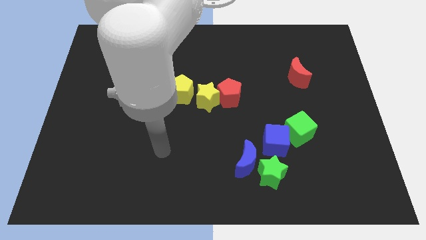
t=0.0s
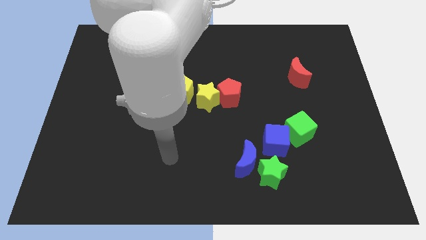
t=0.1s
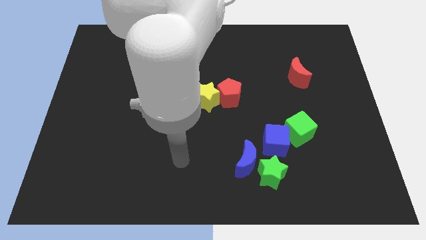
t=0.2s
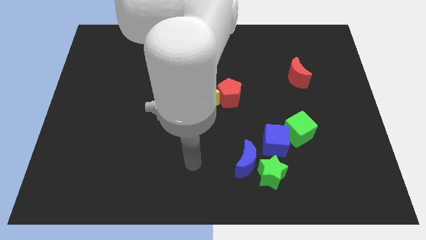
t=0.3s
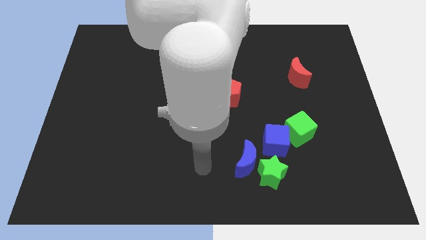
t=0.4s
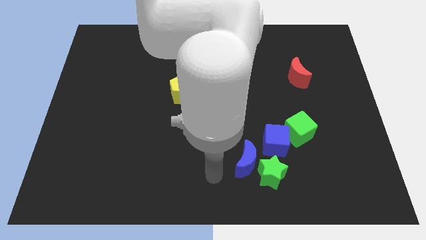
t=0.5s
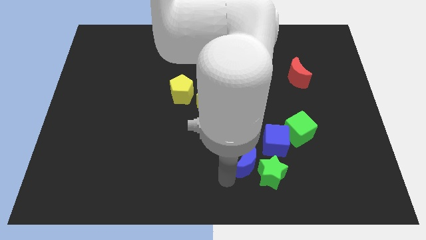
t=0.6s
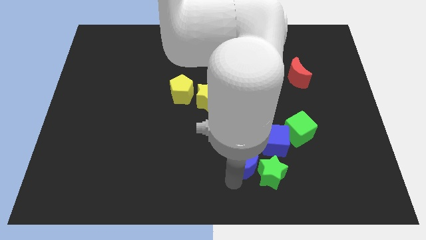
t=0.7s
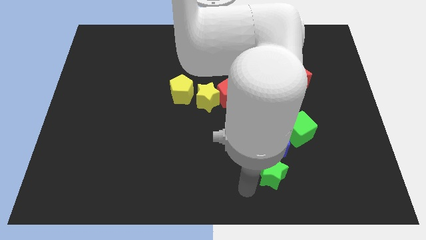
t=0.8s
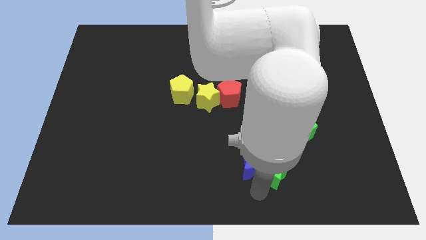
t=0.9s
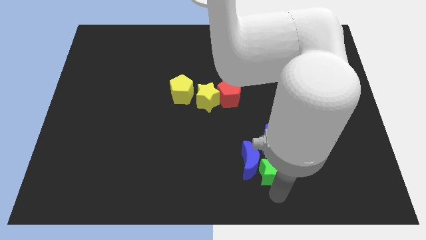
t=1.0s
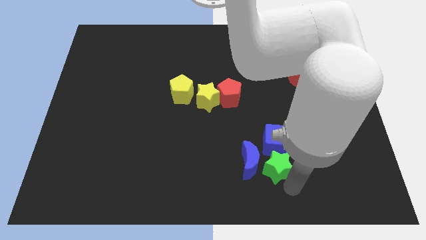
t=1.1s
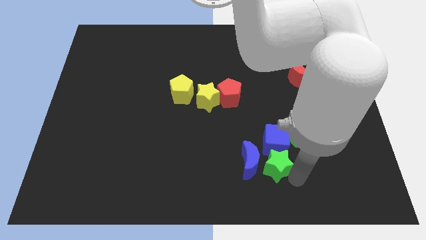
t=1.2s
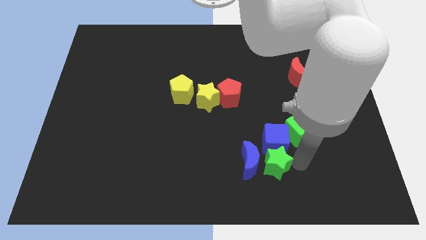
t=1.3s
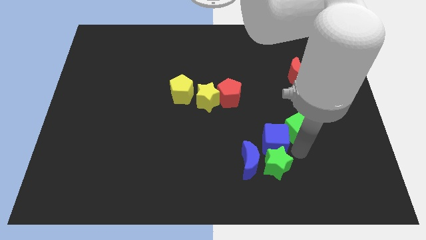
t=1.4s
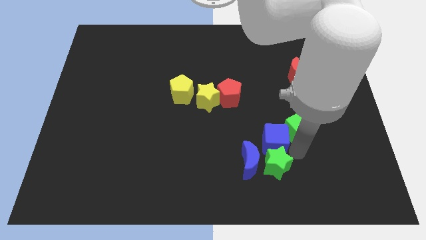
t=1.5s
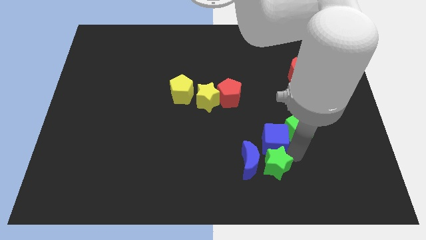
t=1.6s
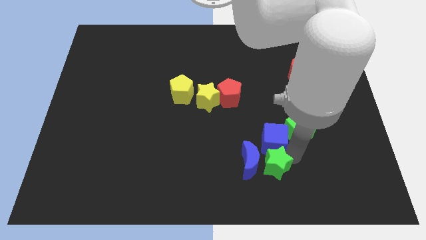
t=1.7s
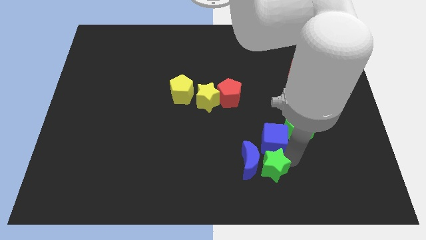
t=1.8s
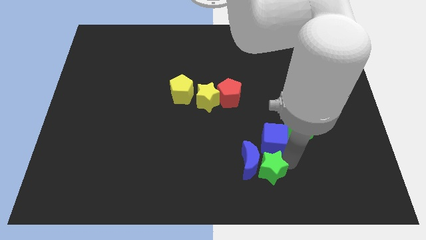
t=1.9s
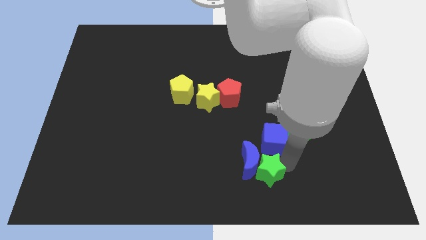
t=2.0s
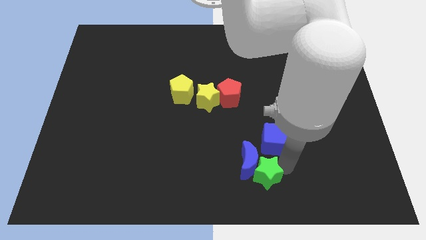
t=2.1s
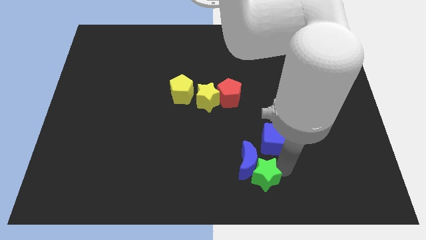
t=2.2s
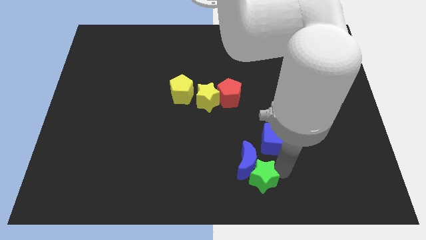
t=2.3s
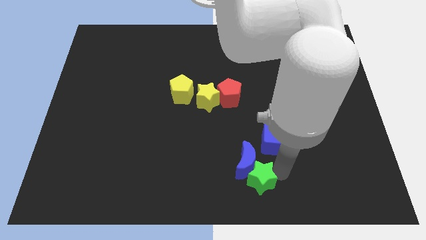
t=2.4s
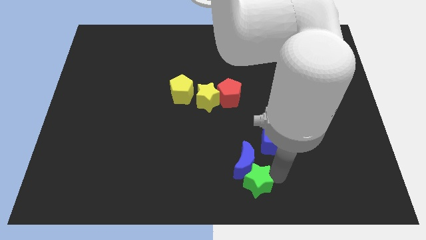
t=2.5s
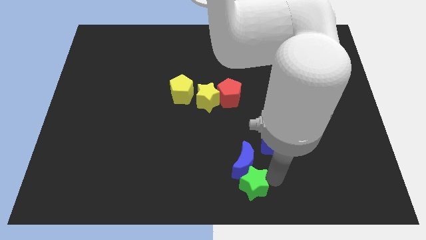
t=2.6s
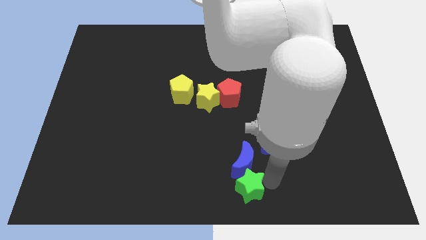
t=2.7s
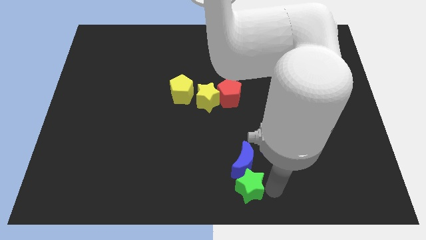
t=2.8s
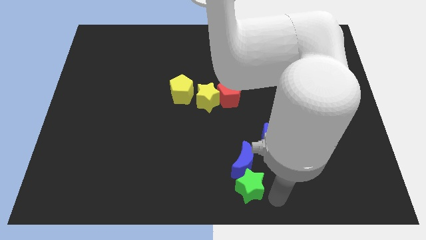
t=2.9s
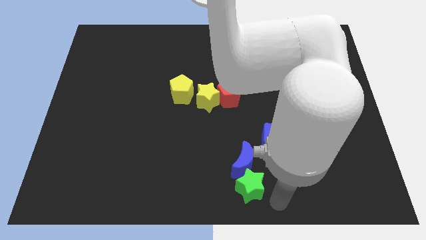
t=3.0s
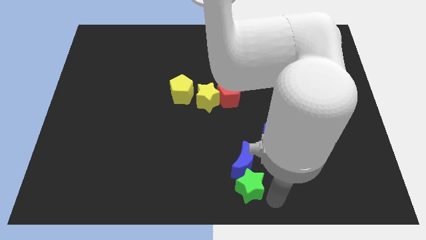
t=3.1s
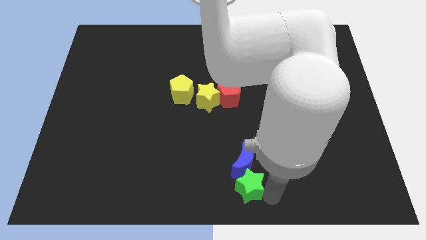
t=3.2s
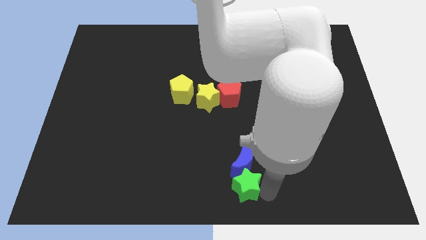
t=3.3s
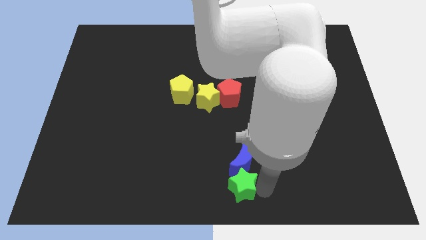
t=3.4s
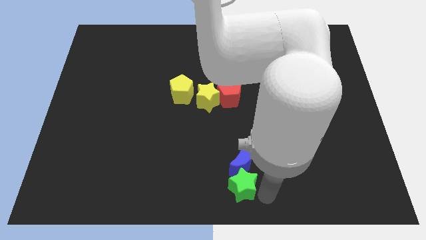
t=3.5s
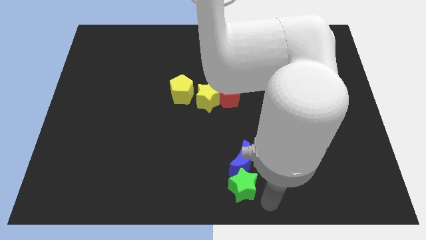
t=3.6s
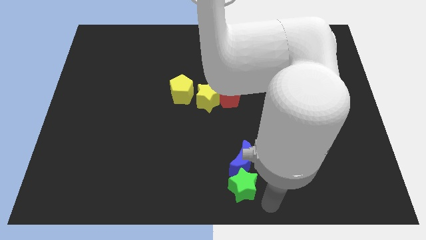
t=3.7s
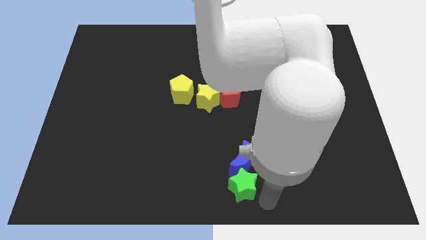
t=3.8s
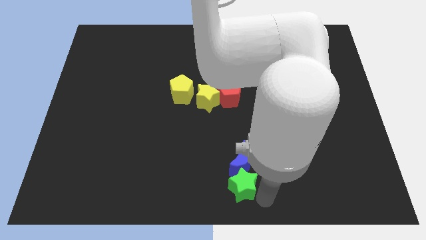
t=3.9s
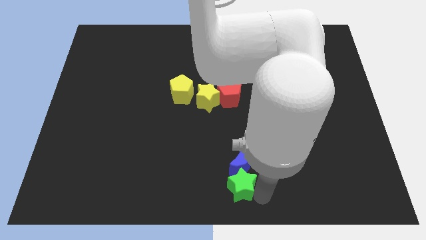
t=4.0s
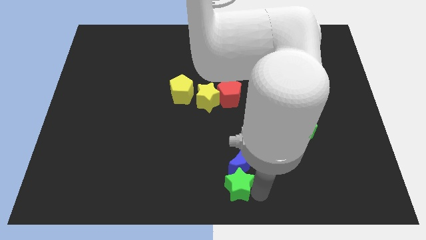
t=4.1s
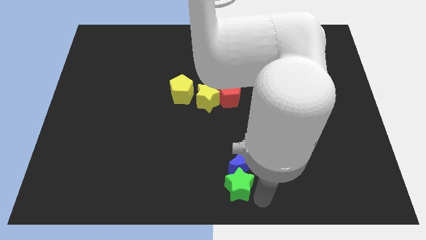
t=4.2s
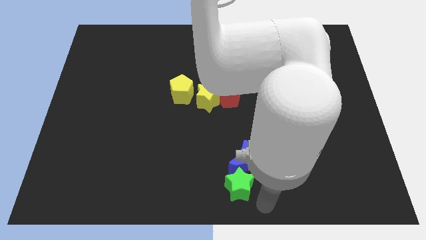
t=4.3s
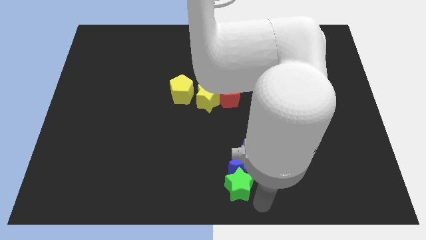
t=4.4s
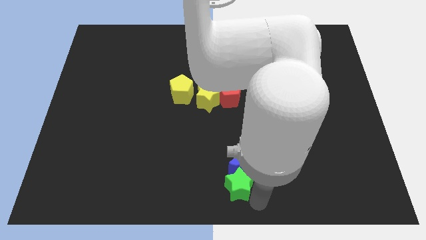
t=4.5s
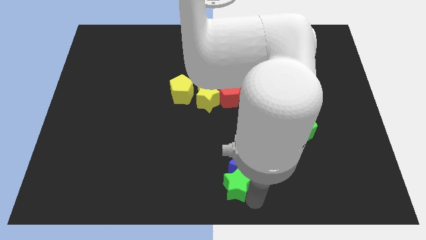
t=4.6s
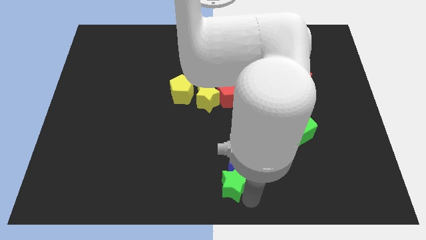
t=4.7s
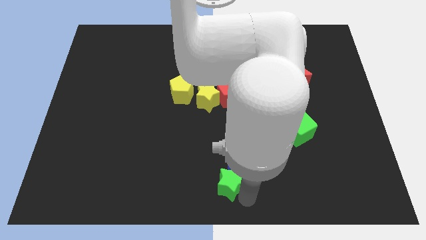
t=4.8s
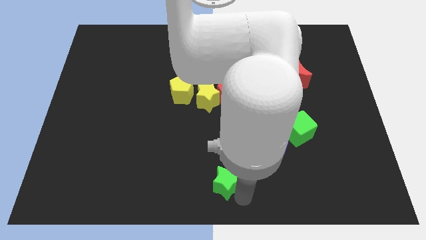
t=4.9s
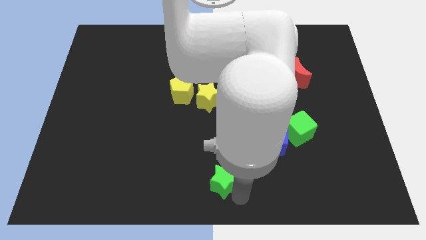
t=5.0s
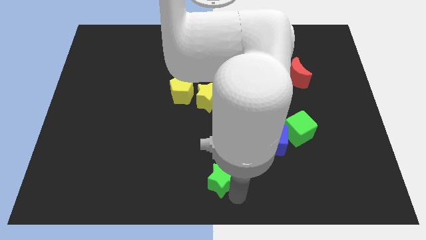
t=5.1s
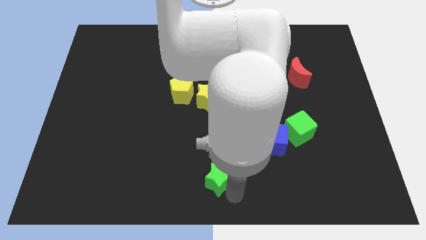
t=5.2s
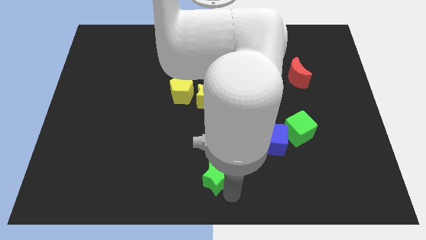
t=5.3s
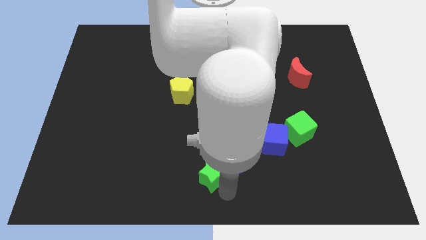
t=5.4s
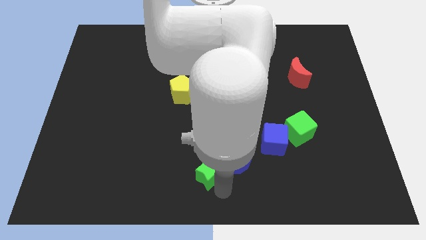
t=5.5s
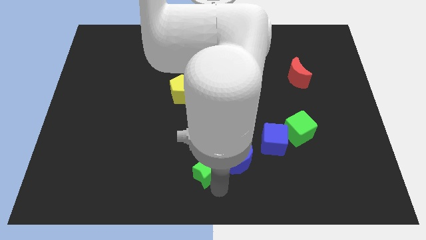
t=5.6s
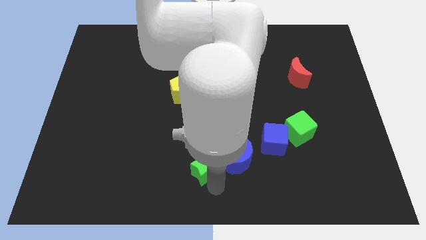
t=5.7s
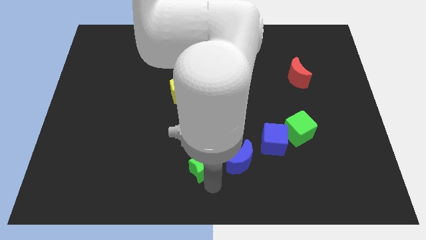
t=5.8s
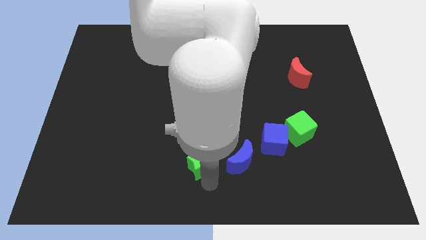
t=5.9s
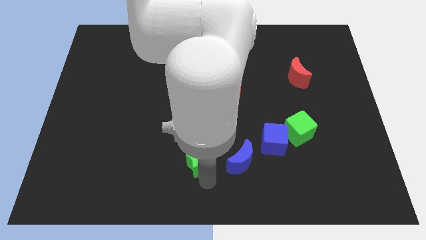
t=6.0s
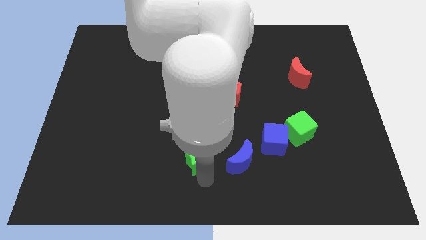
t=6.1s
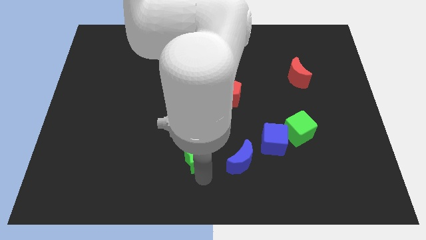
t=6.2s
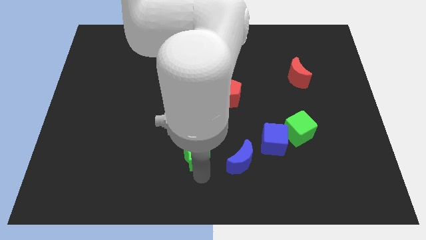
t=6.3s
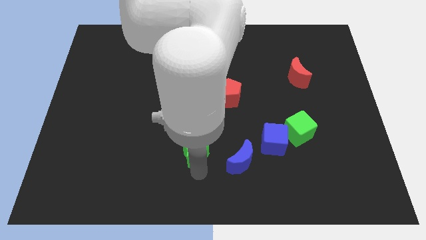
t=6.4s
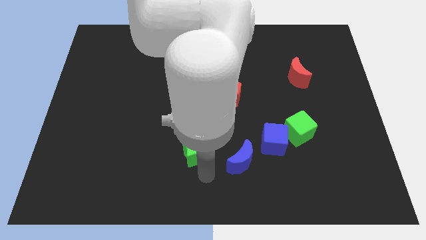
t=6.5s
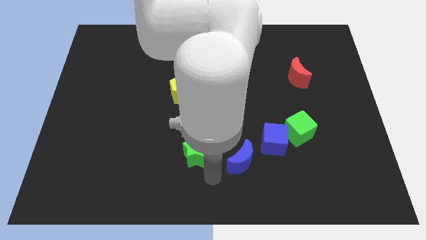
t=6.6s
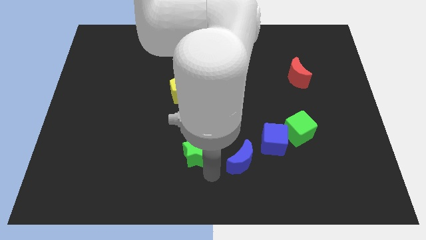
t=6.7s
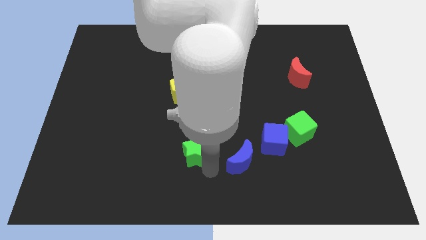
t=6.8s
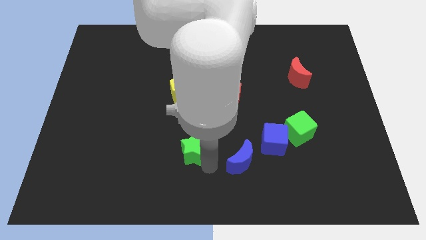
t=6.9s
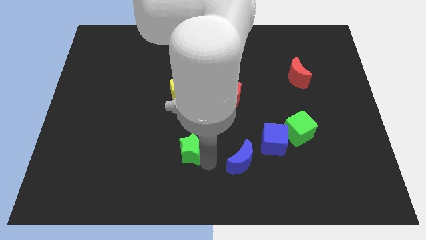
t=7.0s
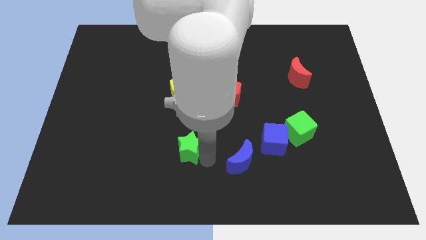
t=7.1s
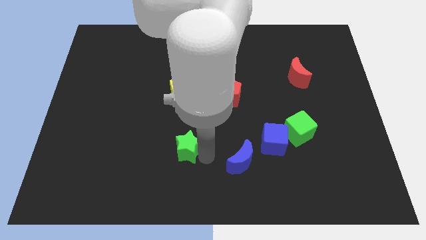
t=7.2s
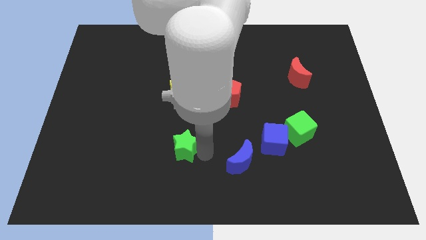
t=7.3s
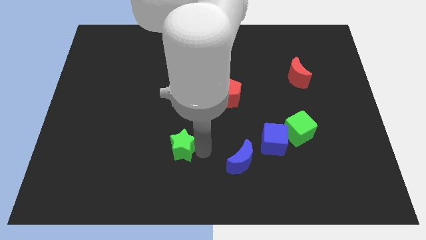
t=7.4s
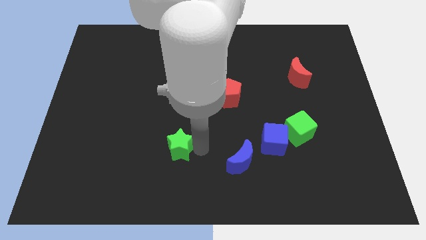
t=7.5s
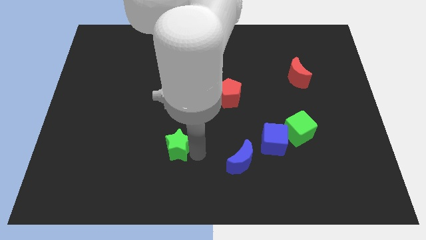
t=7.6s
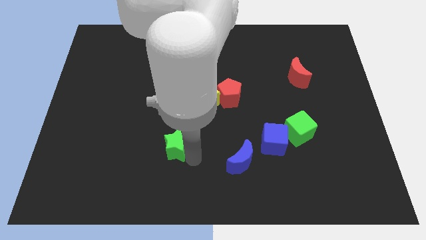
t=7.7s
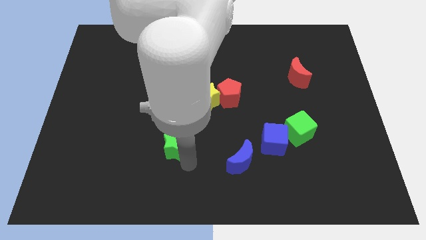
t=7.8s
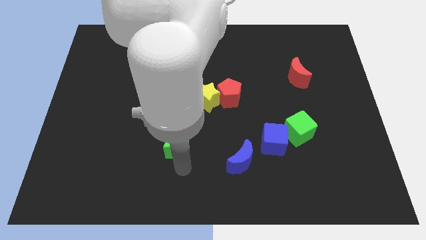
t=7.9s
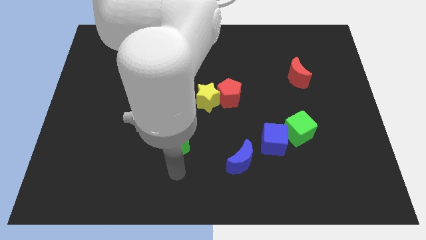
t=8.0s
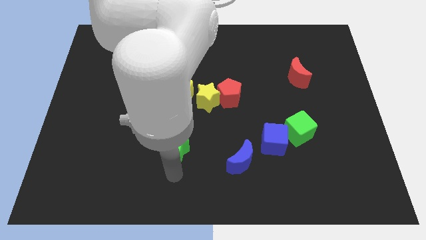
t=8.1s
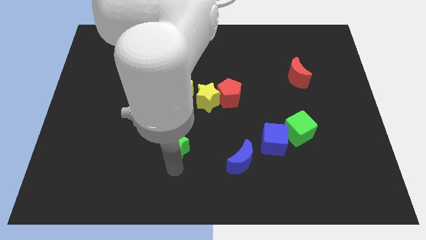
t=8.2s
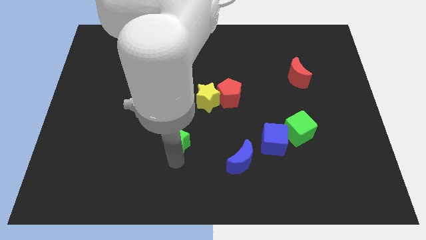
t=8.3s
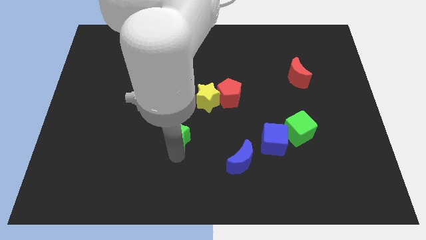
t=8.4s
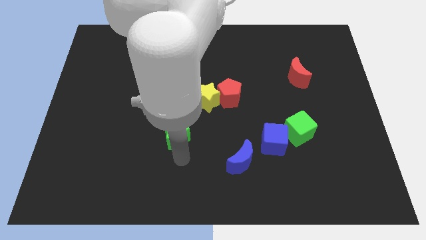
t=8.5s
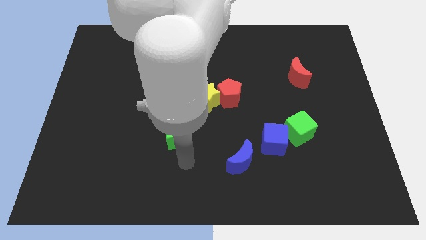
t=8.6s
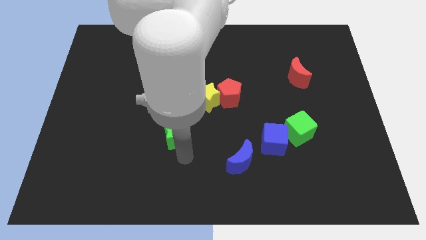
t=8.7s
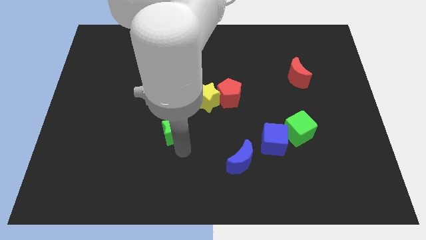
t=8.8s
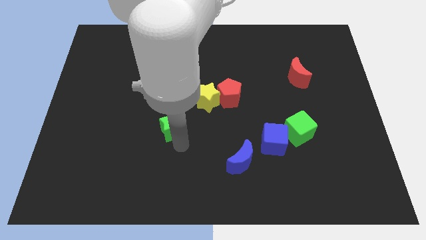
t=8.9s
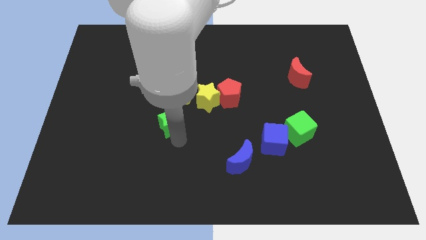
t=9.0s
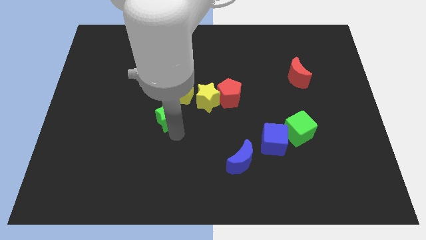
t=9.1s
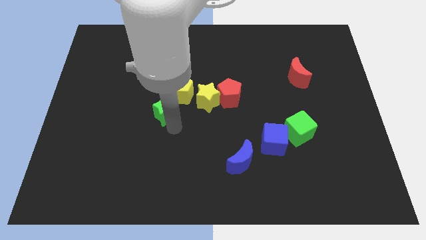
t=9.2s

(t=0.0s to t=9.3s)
slide the green star just left of the yellow star
